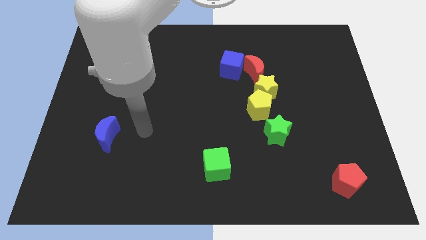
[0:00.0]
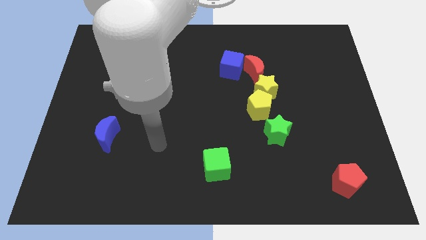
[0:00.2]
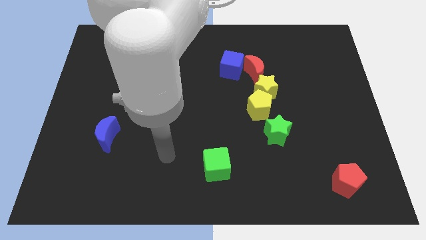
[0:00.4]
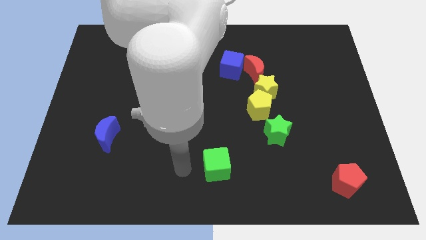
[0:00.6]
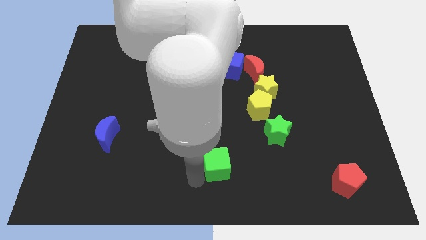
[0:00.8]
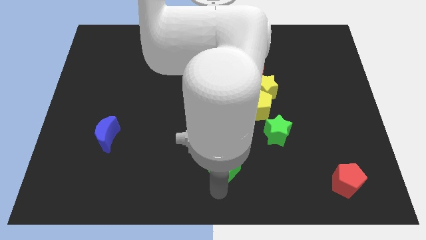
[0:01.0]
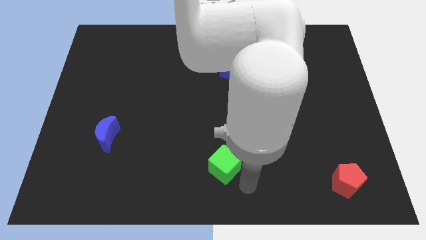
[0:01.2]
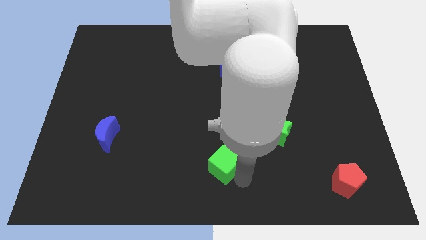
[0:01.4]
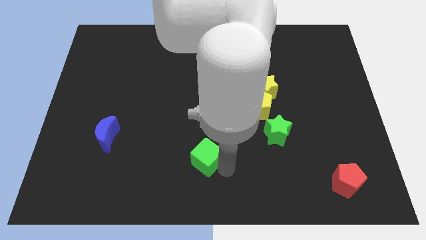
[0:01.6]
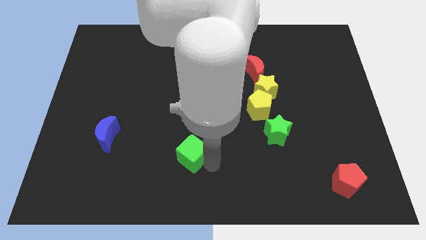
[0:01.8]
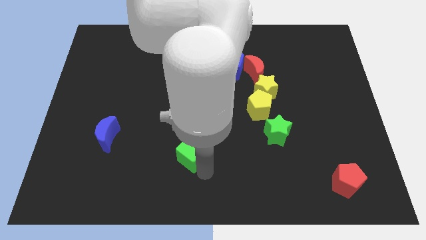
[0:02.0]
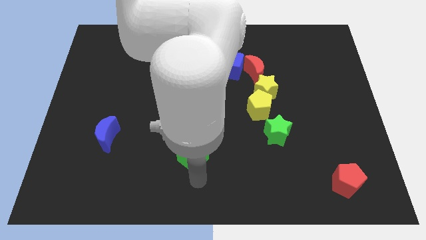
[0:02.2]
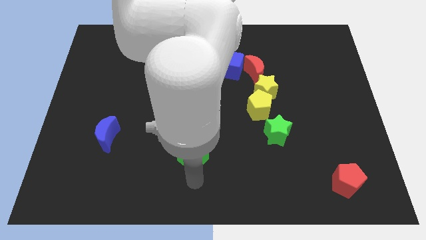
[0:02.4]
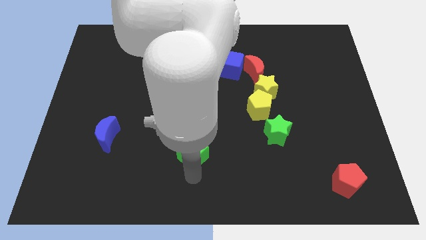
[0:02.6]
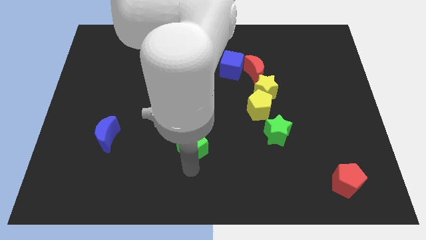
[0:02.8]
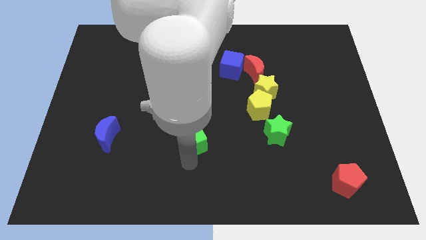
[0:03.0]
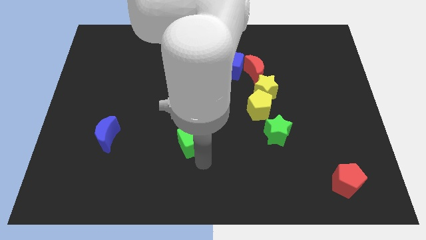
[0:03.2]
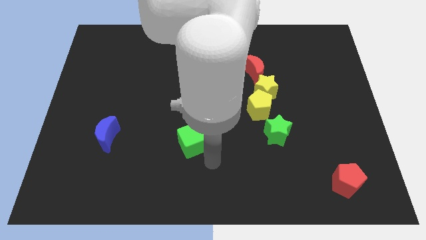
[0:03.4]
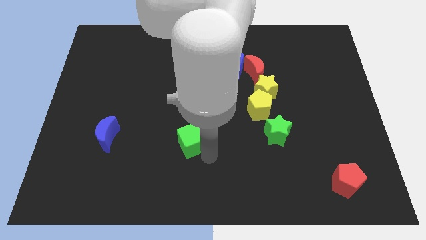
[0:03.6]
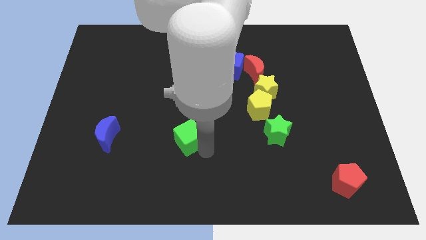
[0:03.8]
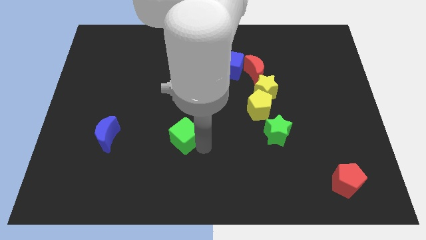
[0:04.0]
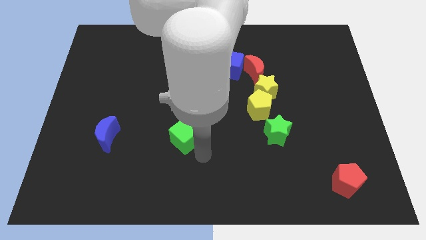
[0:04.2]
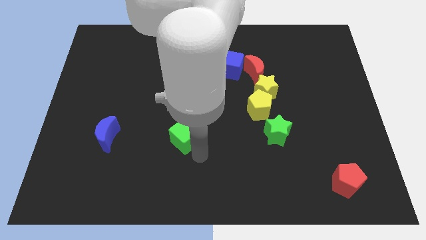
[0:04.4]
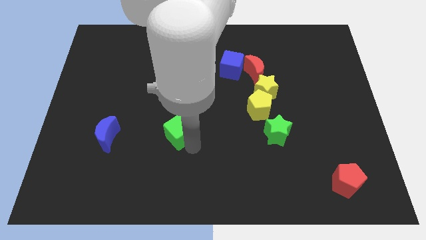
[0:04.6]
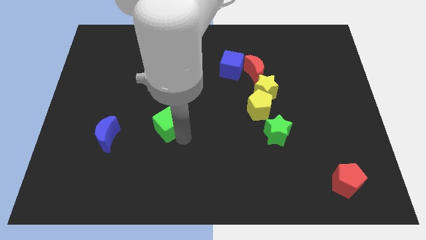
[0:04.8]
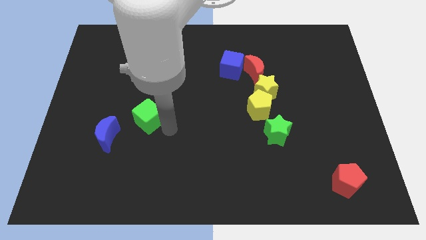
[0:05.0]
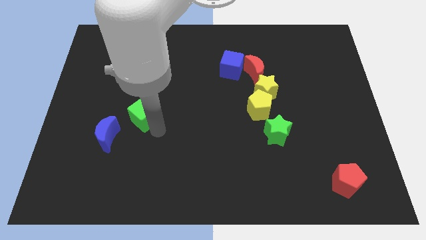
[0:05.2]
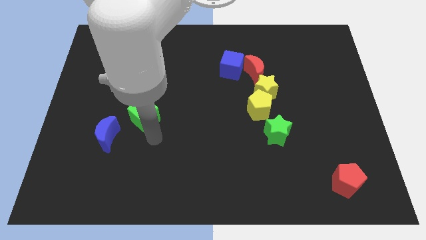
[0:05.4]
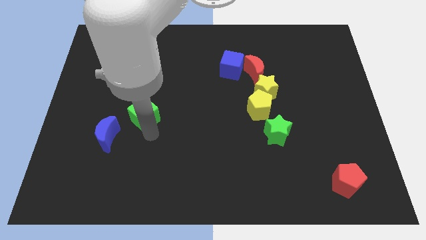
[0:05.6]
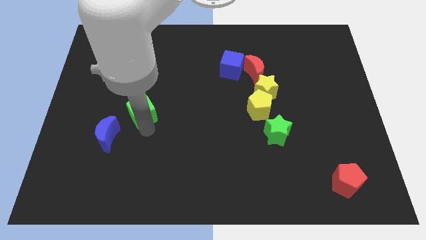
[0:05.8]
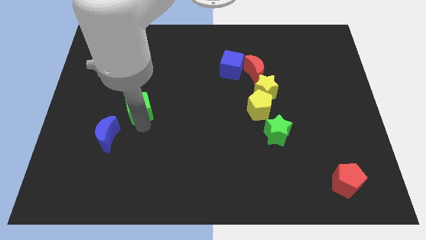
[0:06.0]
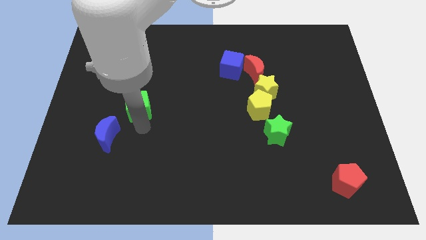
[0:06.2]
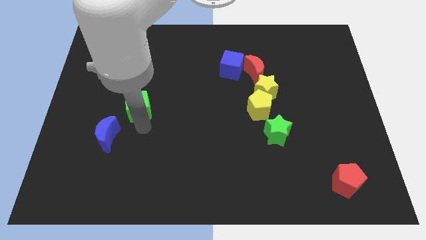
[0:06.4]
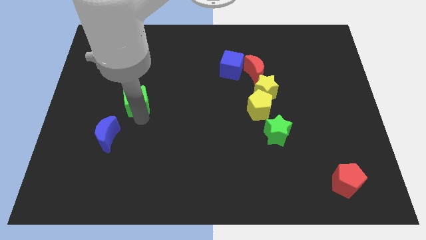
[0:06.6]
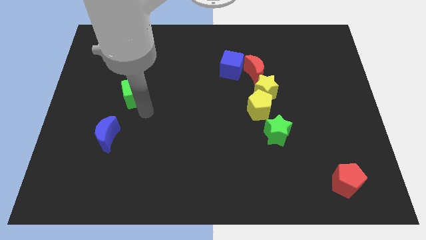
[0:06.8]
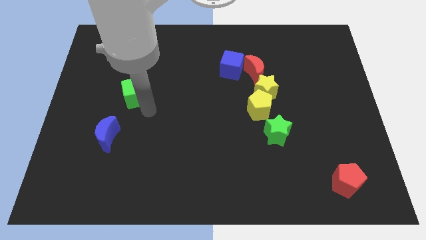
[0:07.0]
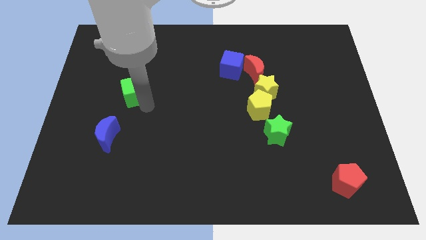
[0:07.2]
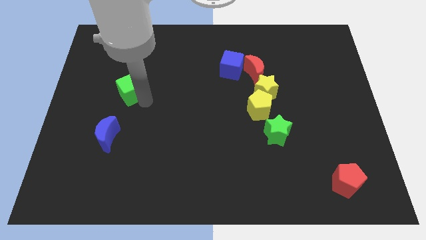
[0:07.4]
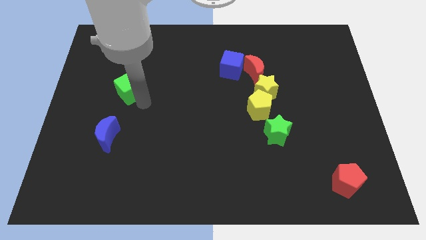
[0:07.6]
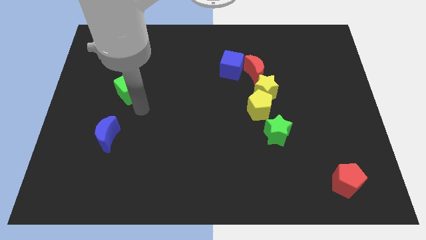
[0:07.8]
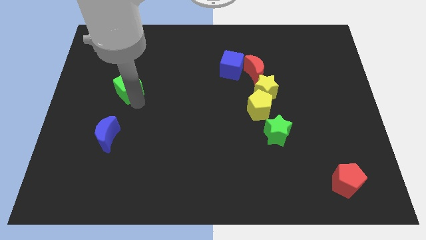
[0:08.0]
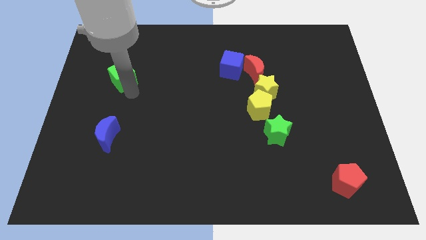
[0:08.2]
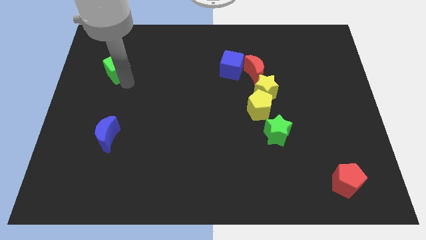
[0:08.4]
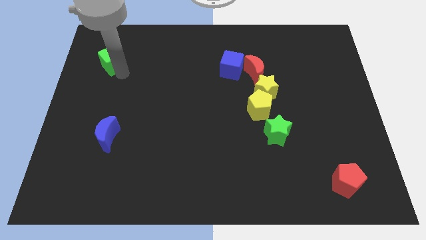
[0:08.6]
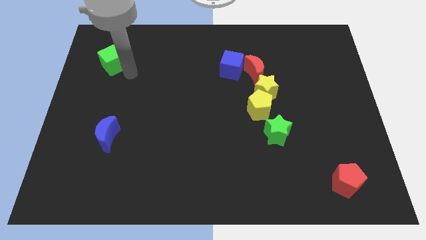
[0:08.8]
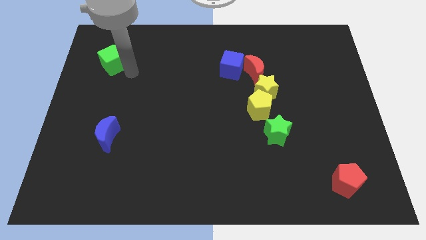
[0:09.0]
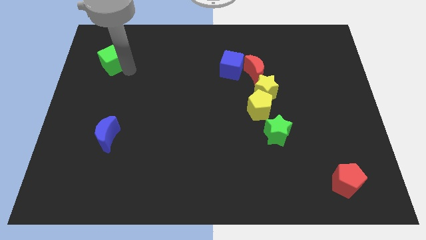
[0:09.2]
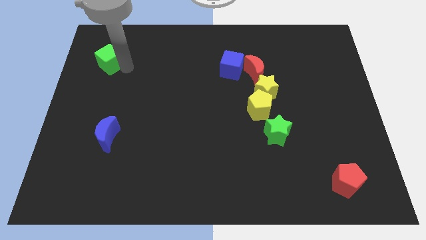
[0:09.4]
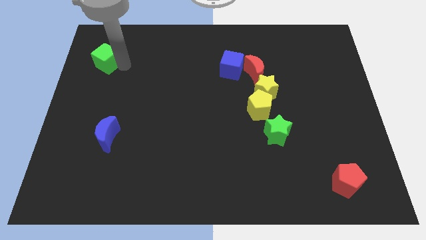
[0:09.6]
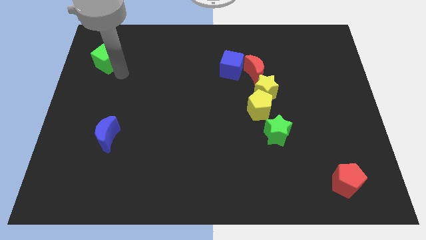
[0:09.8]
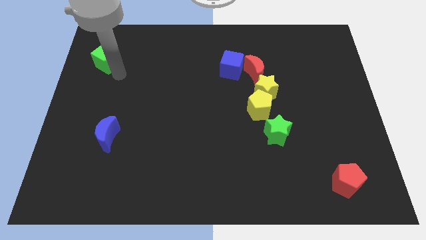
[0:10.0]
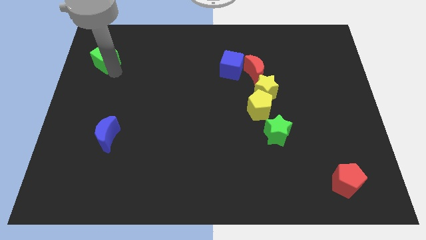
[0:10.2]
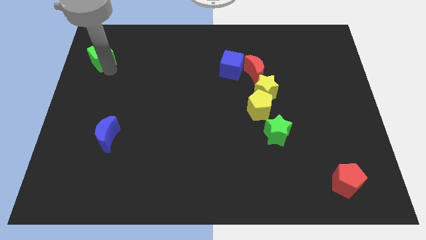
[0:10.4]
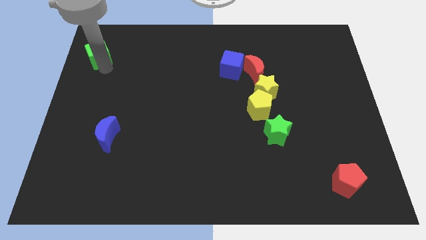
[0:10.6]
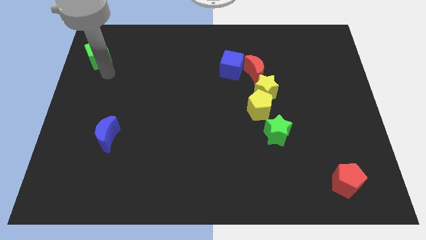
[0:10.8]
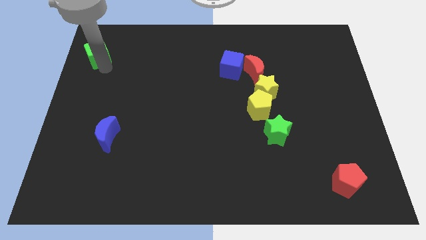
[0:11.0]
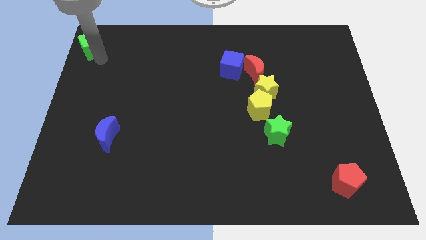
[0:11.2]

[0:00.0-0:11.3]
move the green cube to the top left of the board

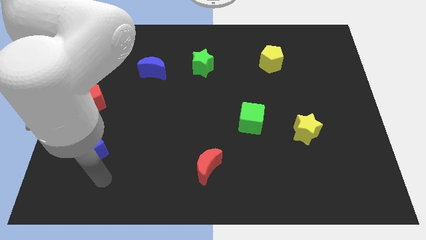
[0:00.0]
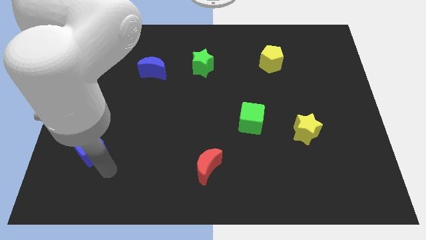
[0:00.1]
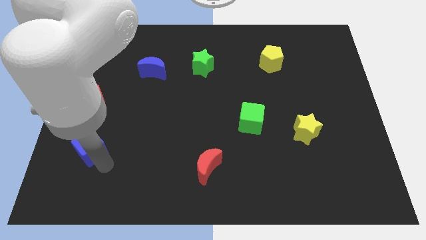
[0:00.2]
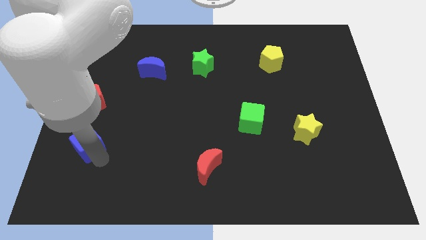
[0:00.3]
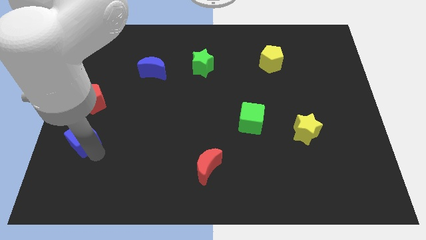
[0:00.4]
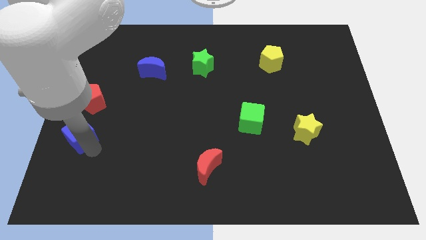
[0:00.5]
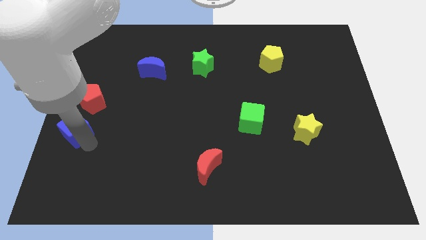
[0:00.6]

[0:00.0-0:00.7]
move the blue cube to the left side
